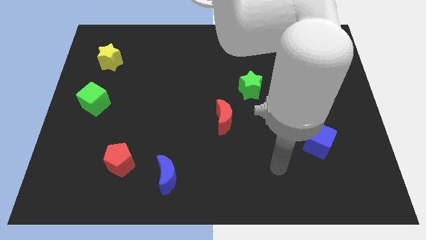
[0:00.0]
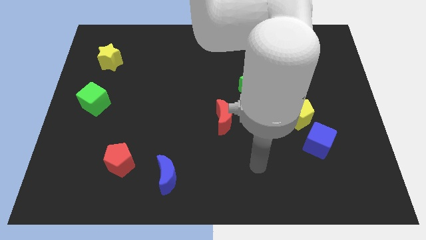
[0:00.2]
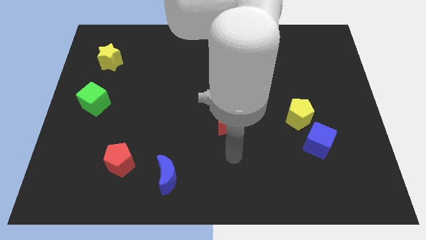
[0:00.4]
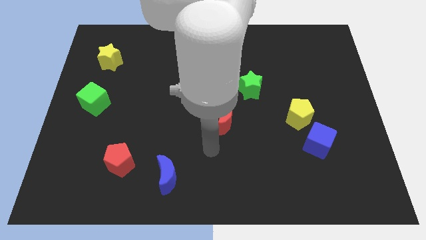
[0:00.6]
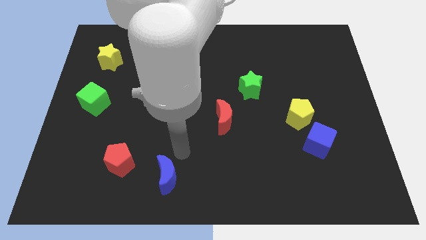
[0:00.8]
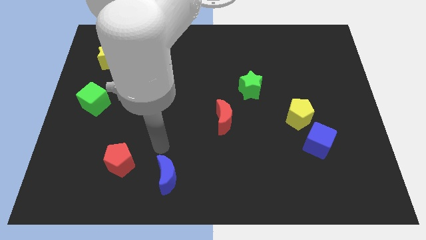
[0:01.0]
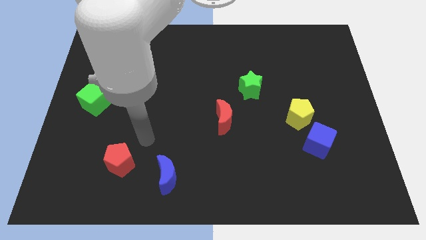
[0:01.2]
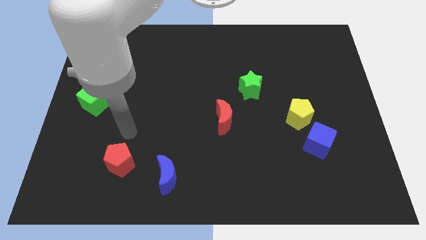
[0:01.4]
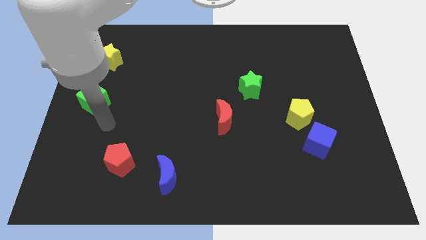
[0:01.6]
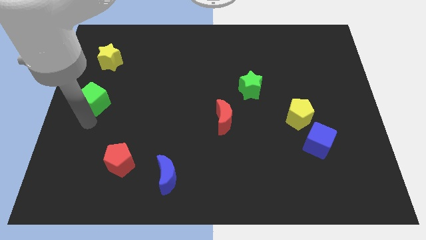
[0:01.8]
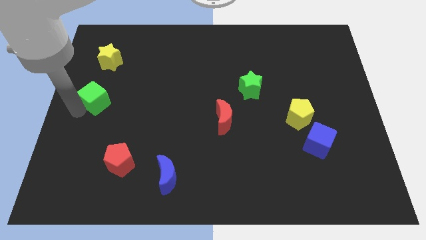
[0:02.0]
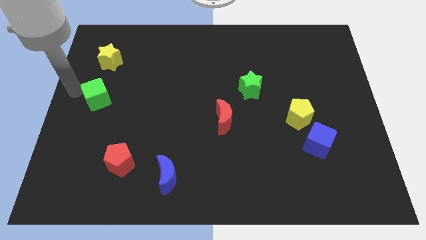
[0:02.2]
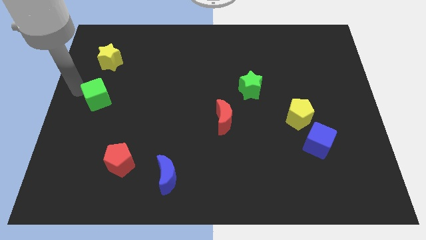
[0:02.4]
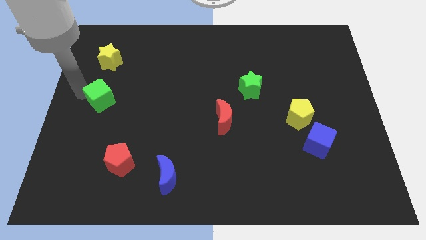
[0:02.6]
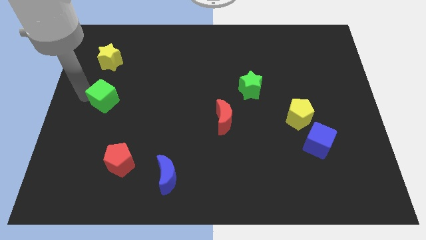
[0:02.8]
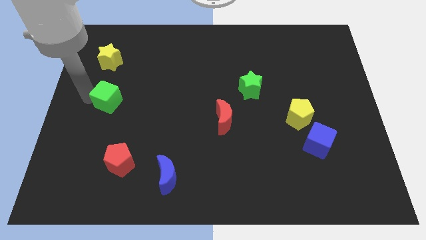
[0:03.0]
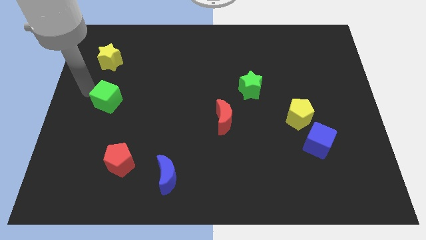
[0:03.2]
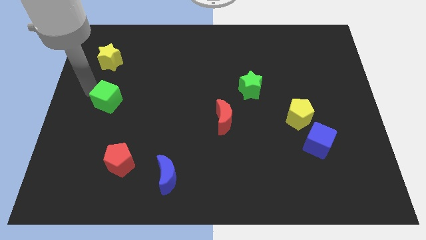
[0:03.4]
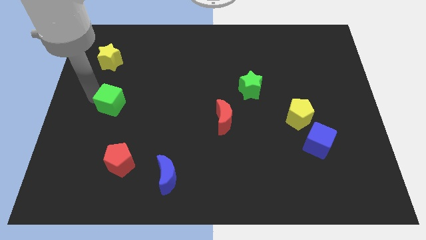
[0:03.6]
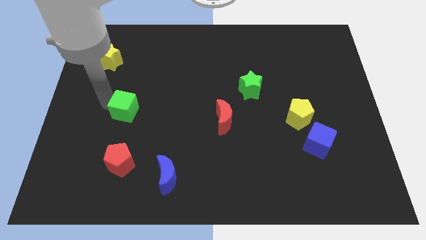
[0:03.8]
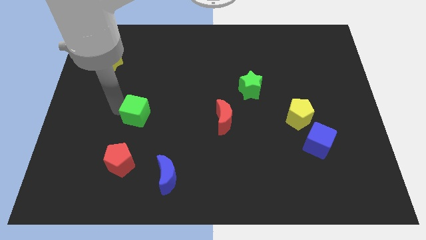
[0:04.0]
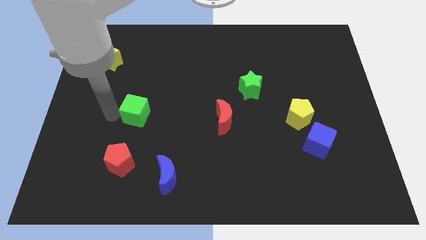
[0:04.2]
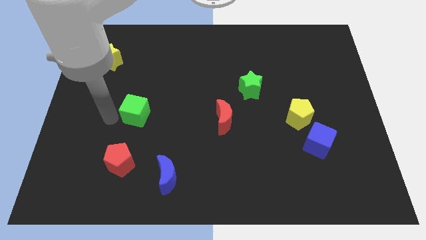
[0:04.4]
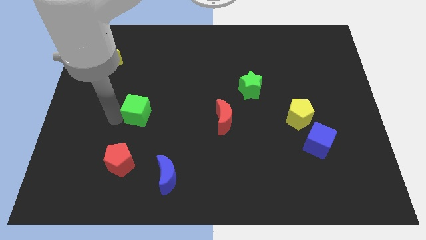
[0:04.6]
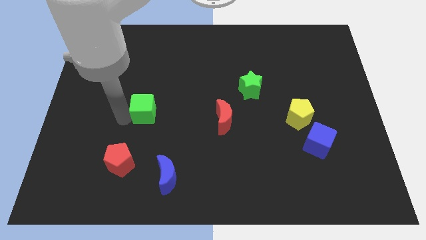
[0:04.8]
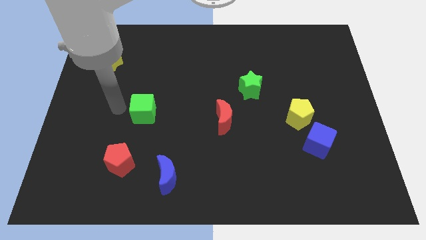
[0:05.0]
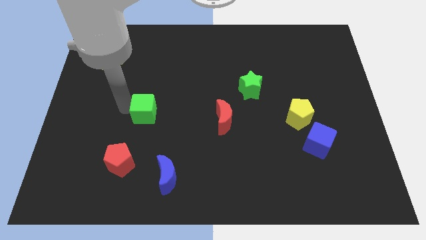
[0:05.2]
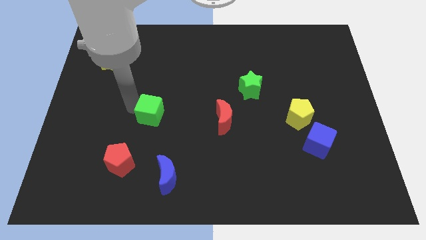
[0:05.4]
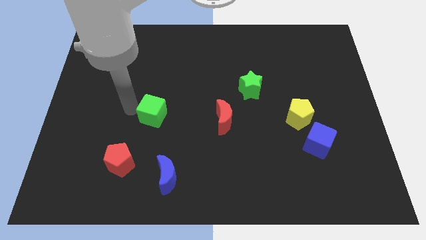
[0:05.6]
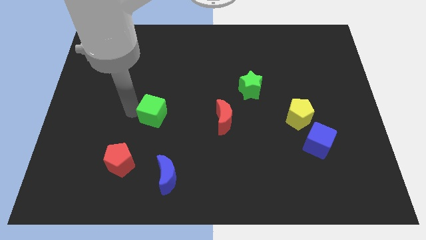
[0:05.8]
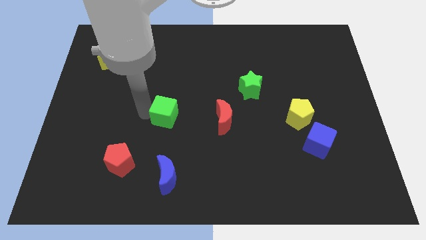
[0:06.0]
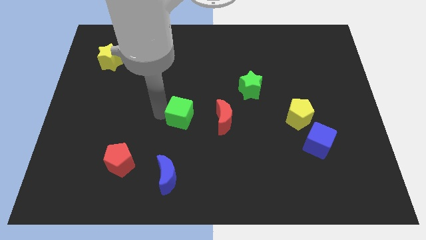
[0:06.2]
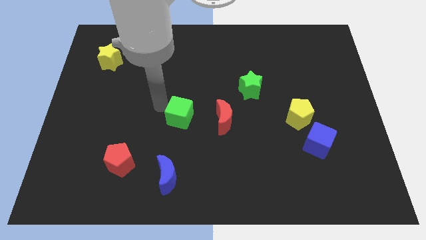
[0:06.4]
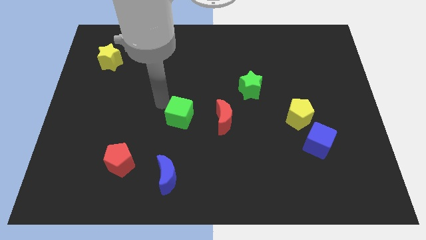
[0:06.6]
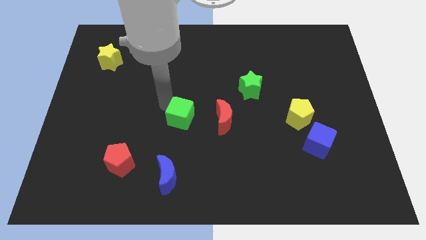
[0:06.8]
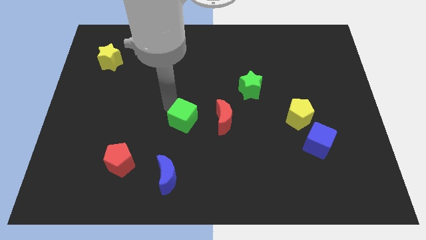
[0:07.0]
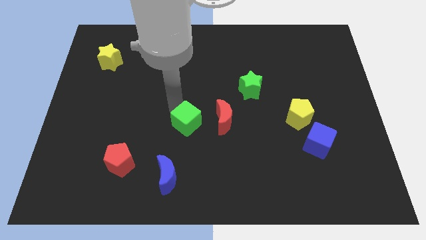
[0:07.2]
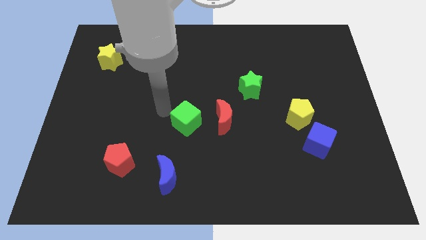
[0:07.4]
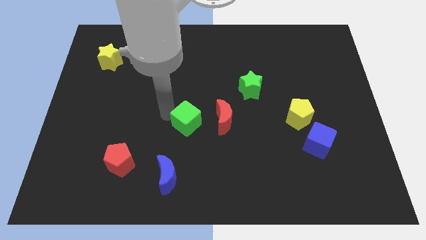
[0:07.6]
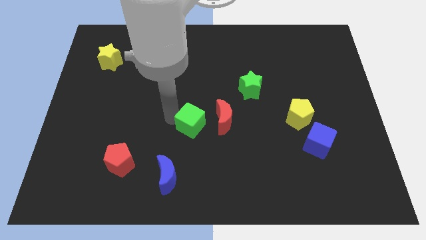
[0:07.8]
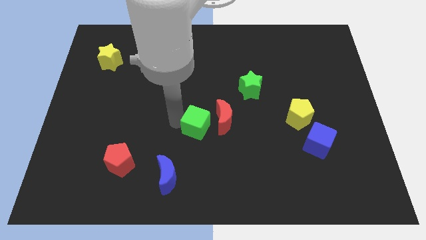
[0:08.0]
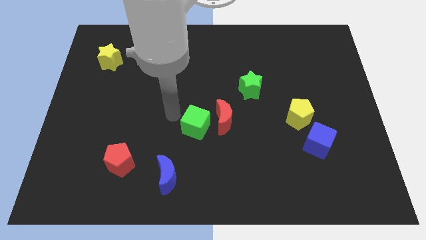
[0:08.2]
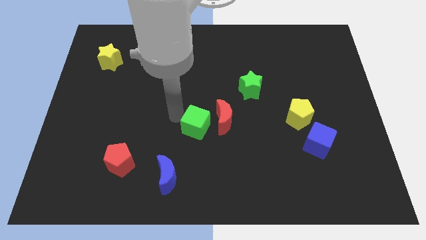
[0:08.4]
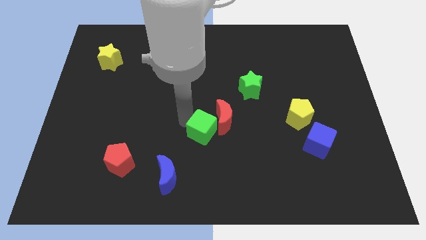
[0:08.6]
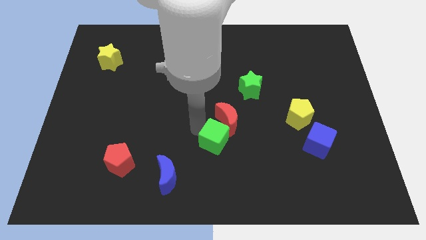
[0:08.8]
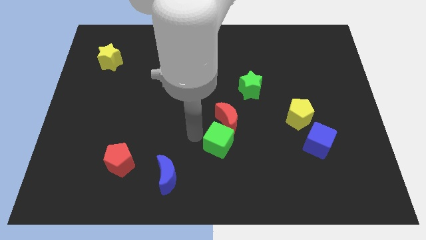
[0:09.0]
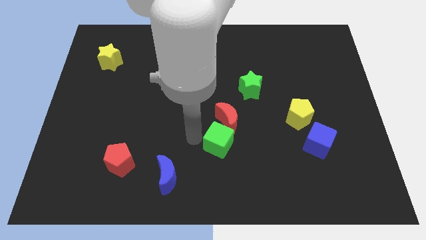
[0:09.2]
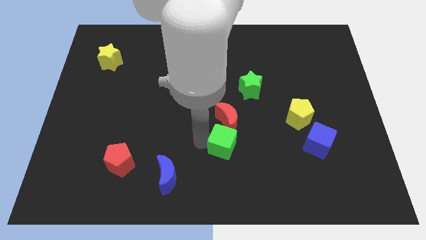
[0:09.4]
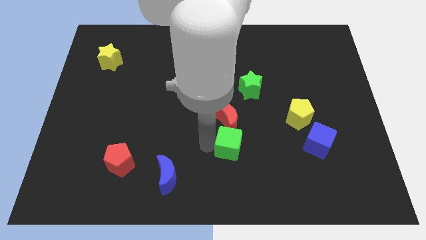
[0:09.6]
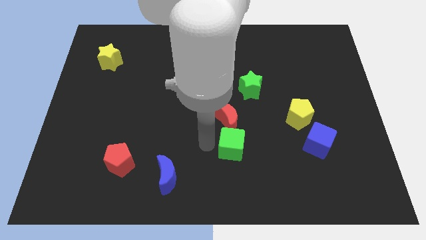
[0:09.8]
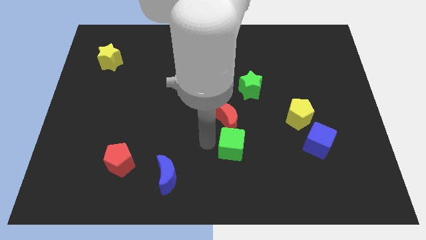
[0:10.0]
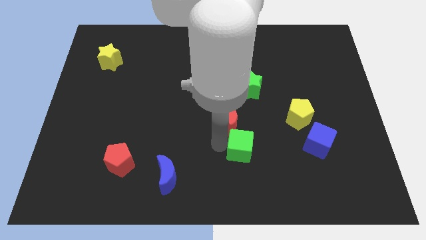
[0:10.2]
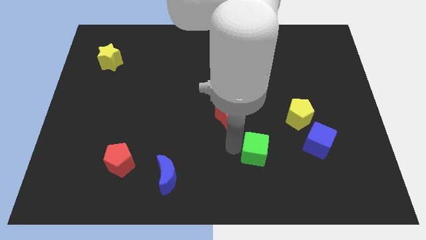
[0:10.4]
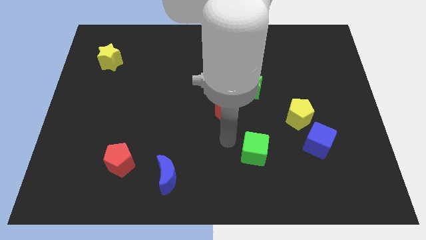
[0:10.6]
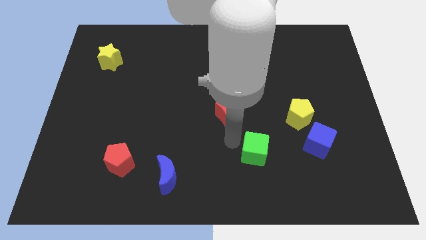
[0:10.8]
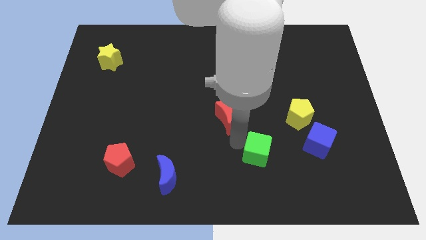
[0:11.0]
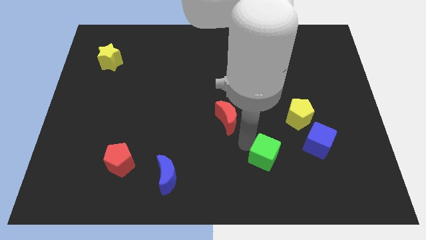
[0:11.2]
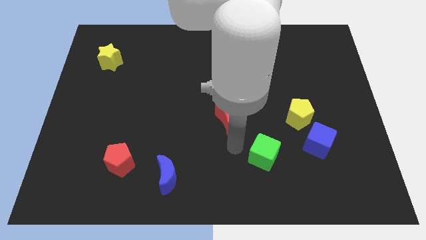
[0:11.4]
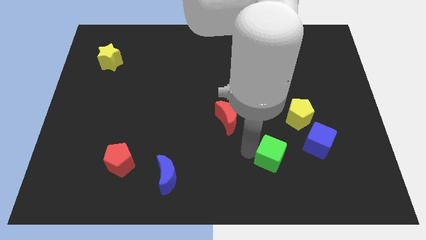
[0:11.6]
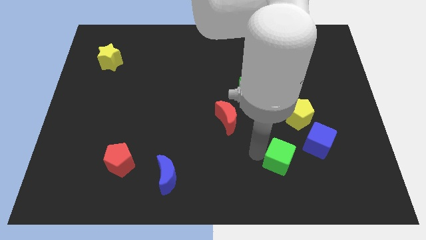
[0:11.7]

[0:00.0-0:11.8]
slide the green cube to the bottom left of the blue cube

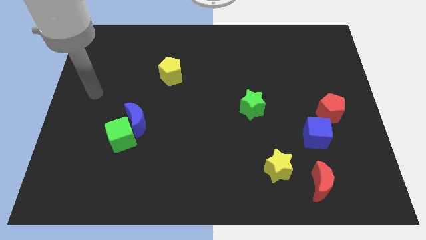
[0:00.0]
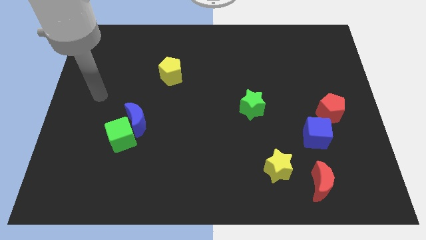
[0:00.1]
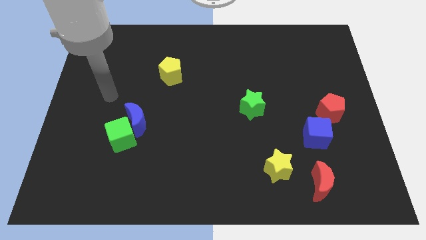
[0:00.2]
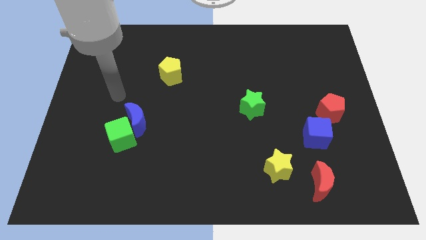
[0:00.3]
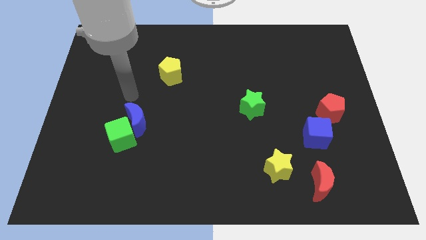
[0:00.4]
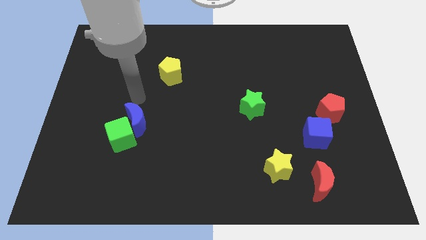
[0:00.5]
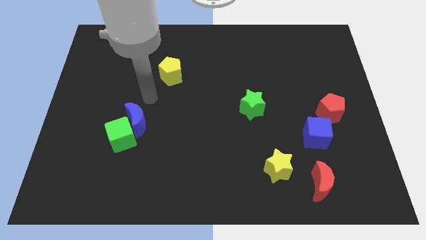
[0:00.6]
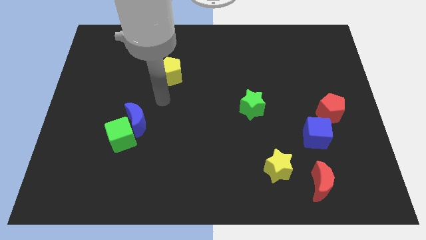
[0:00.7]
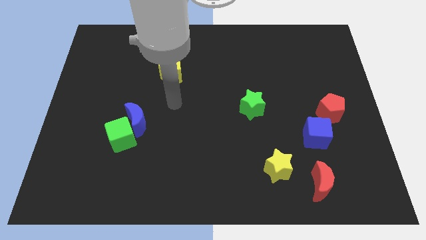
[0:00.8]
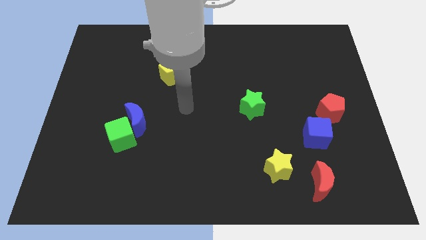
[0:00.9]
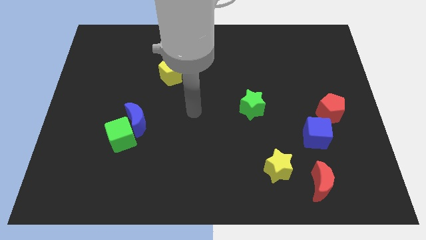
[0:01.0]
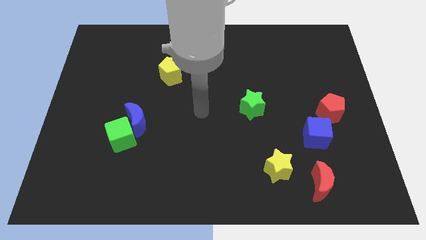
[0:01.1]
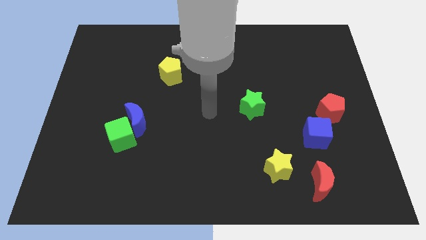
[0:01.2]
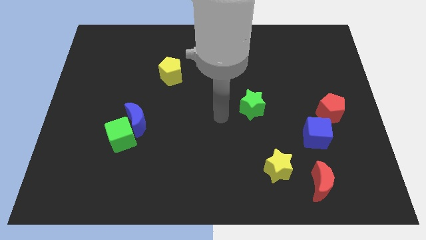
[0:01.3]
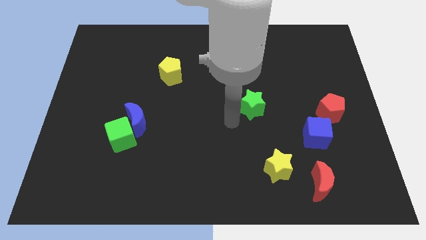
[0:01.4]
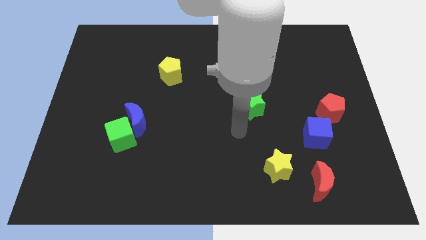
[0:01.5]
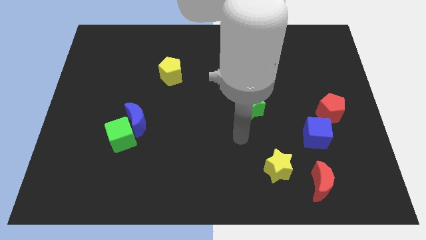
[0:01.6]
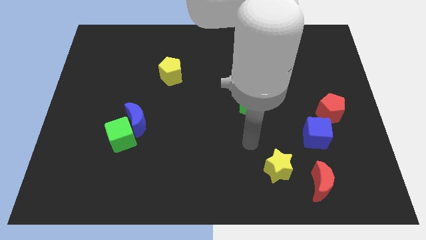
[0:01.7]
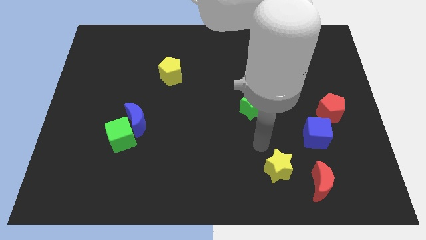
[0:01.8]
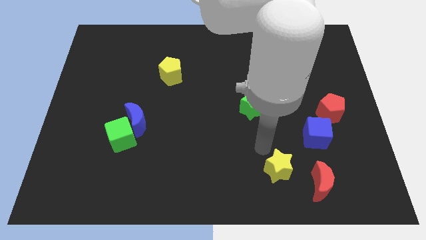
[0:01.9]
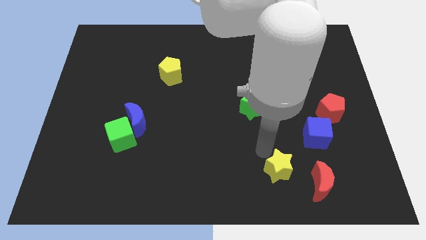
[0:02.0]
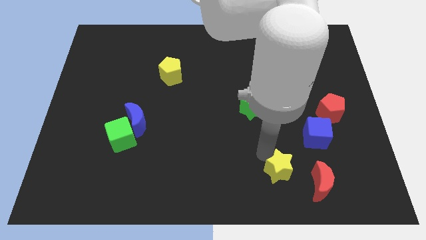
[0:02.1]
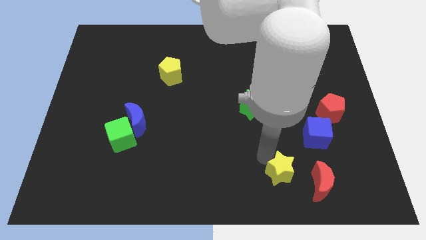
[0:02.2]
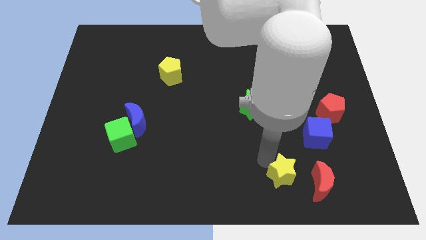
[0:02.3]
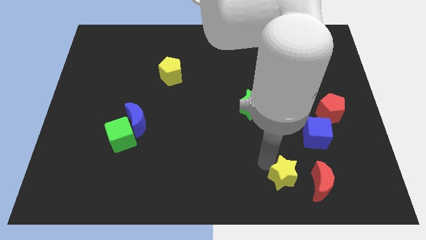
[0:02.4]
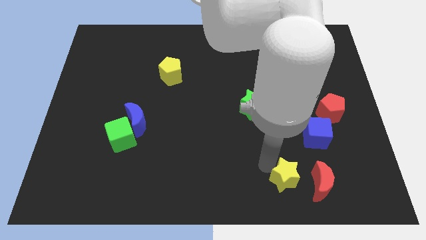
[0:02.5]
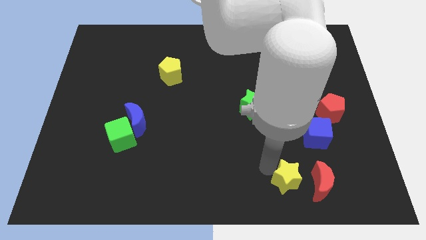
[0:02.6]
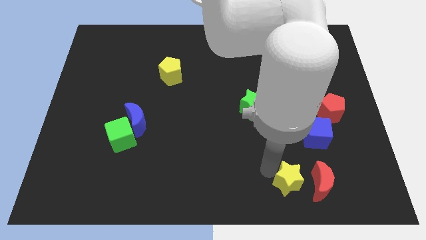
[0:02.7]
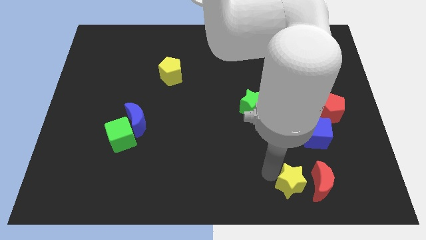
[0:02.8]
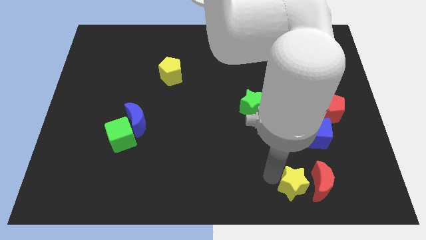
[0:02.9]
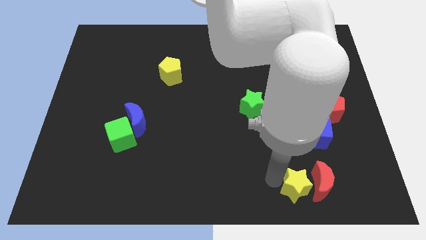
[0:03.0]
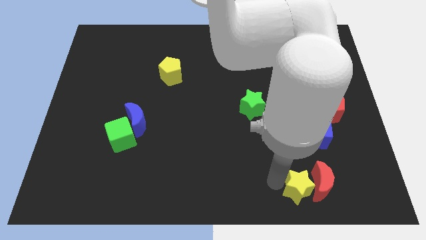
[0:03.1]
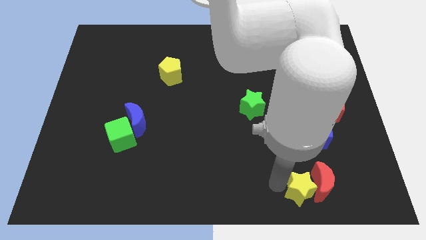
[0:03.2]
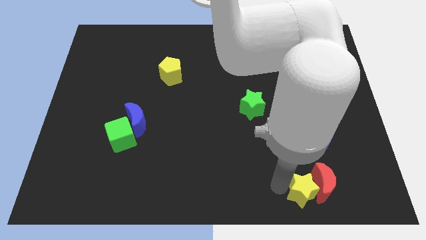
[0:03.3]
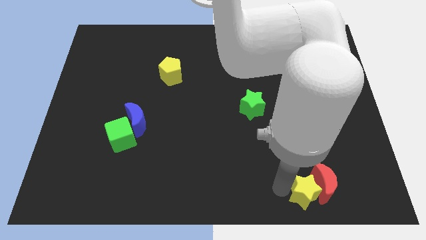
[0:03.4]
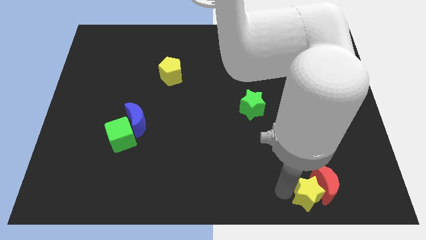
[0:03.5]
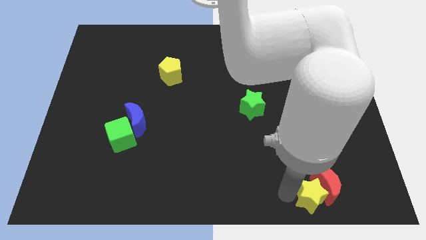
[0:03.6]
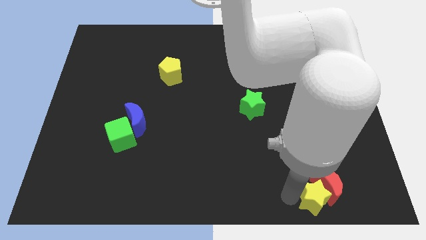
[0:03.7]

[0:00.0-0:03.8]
move the yellow star to the bottom side of the blue cube
